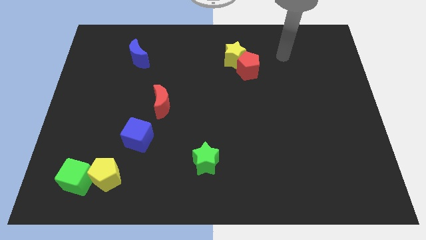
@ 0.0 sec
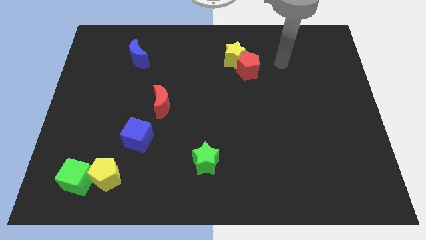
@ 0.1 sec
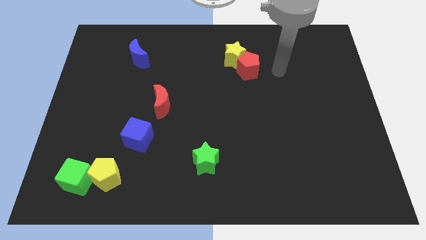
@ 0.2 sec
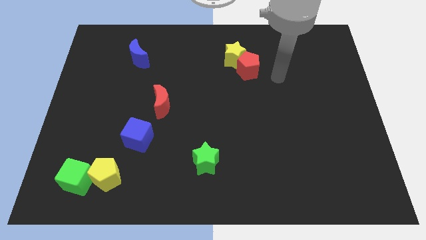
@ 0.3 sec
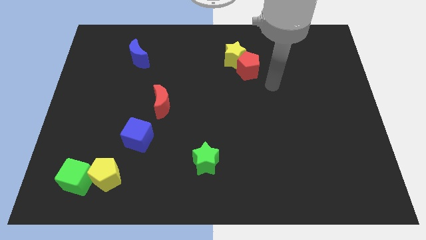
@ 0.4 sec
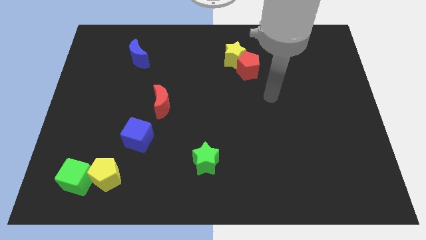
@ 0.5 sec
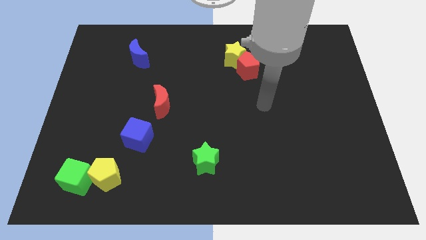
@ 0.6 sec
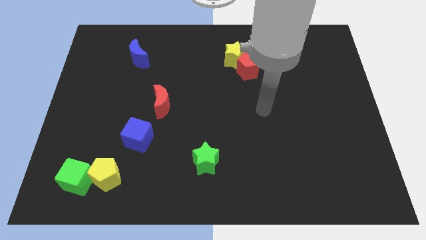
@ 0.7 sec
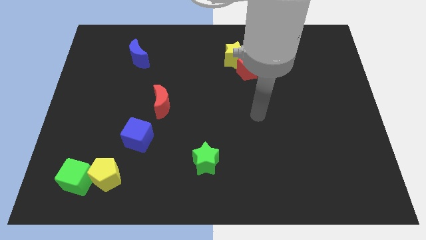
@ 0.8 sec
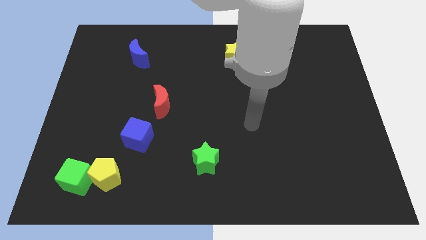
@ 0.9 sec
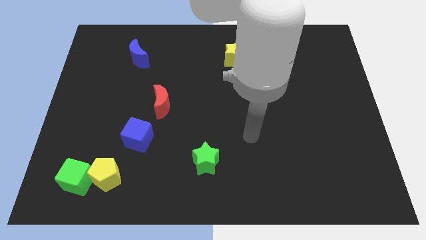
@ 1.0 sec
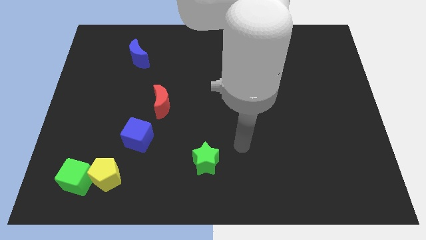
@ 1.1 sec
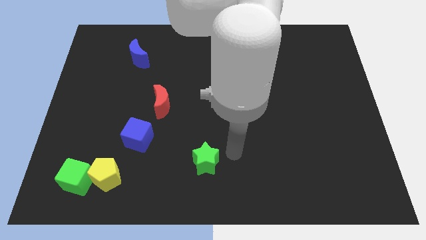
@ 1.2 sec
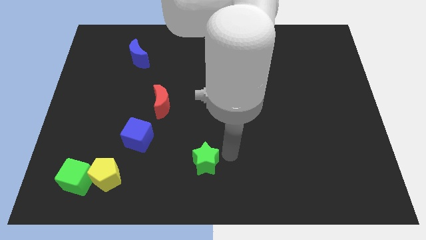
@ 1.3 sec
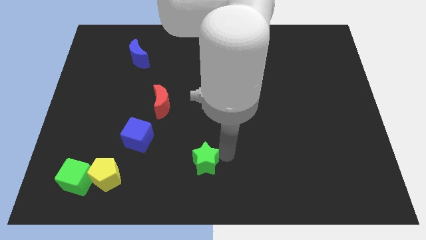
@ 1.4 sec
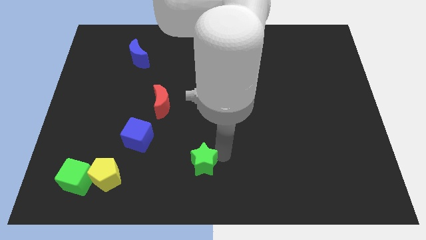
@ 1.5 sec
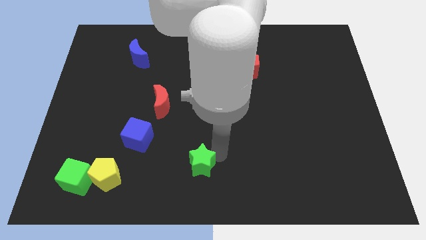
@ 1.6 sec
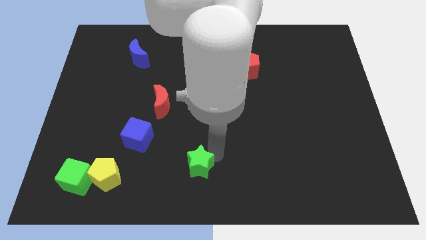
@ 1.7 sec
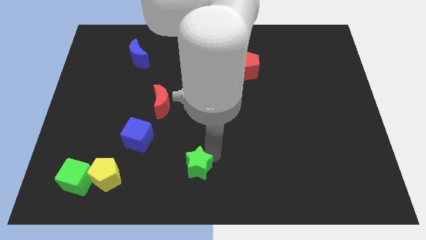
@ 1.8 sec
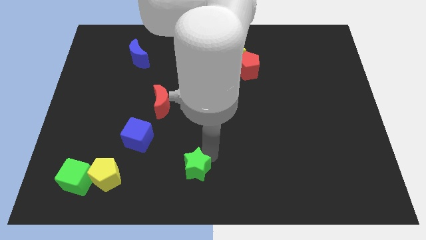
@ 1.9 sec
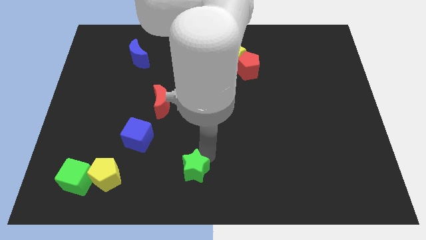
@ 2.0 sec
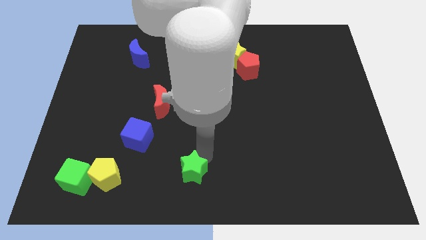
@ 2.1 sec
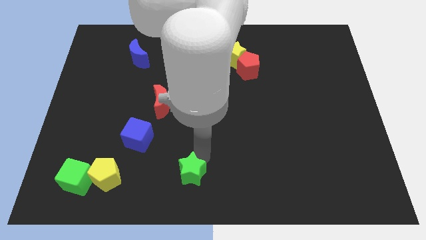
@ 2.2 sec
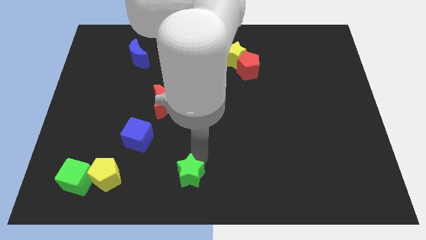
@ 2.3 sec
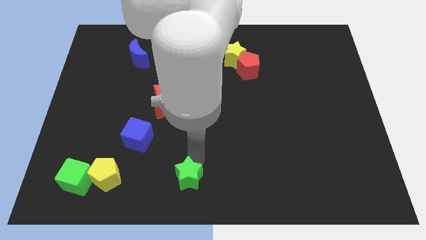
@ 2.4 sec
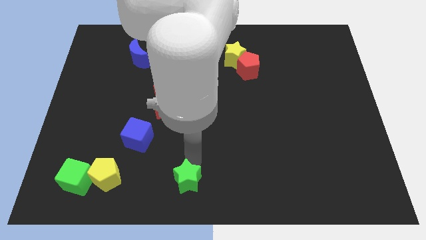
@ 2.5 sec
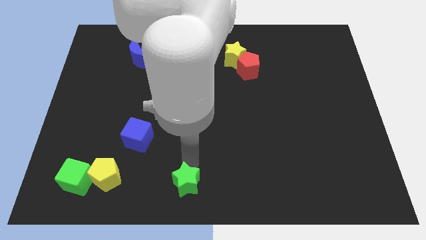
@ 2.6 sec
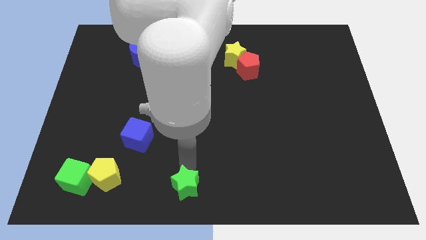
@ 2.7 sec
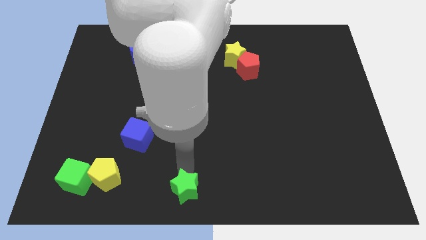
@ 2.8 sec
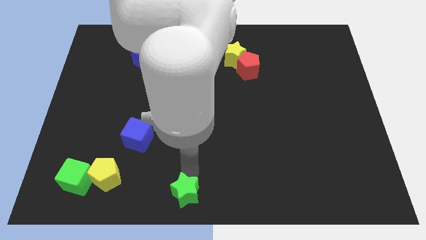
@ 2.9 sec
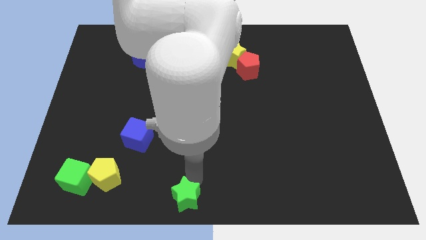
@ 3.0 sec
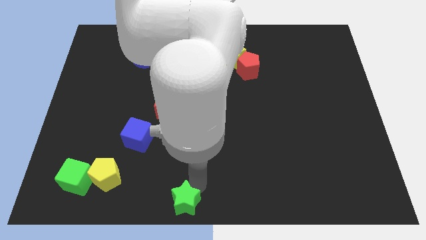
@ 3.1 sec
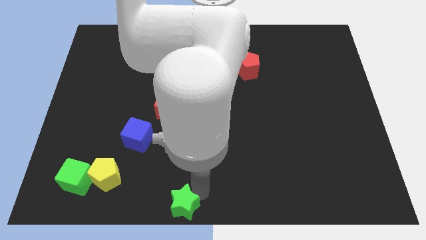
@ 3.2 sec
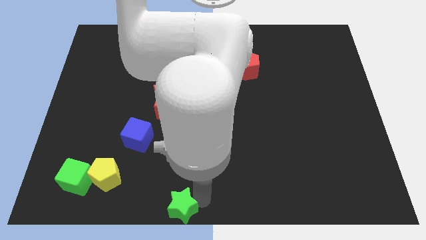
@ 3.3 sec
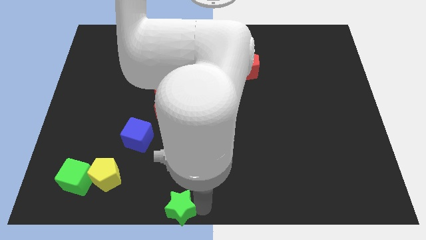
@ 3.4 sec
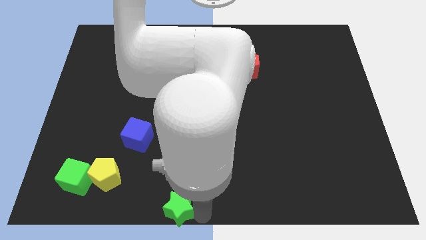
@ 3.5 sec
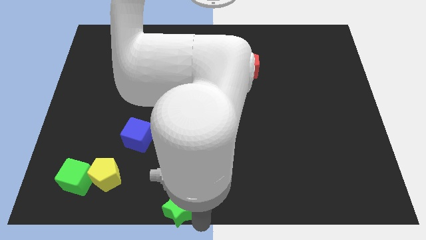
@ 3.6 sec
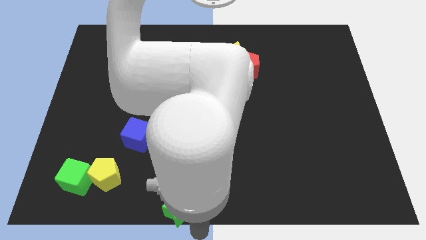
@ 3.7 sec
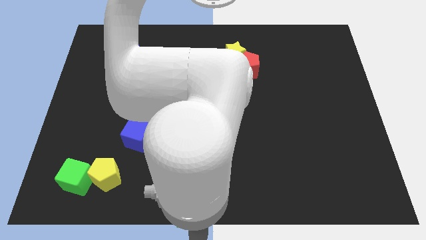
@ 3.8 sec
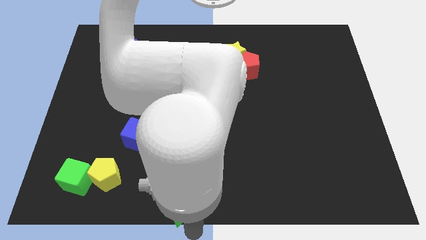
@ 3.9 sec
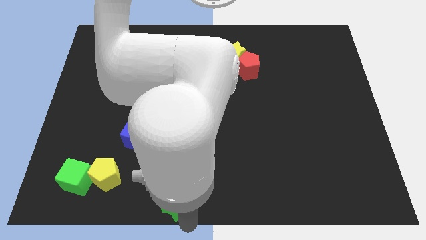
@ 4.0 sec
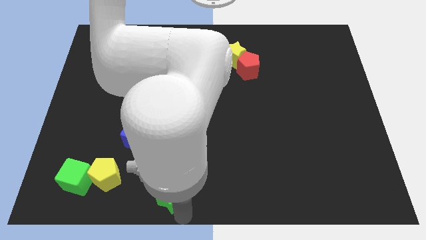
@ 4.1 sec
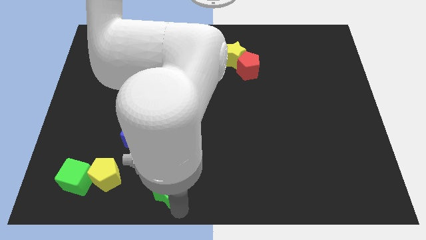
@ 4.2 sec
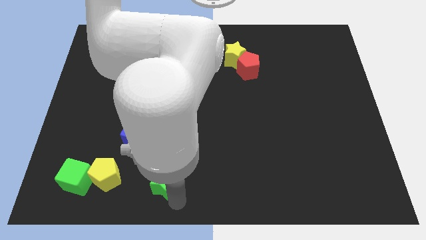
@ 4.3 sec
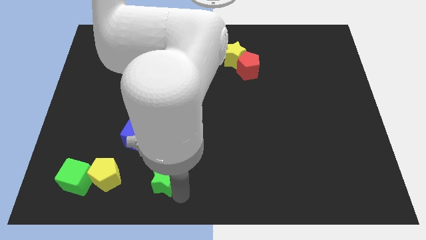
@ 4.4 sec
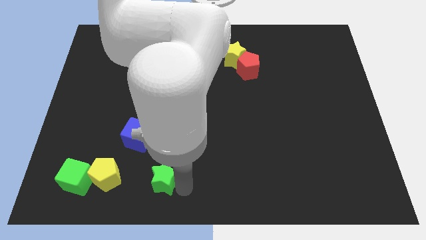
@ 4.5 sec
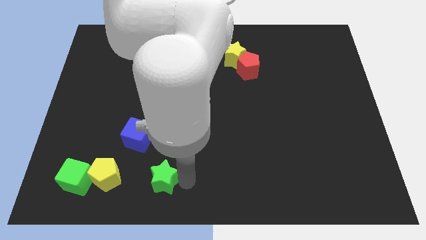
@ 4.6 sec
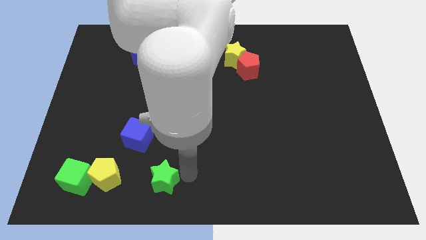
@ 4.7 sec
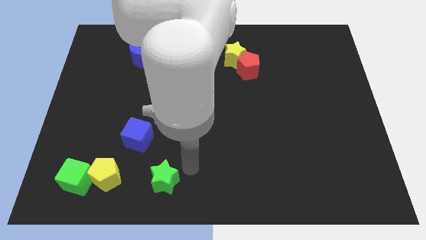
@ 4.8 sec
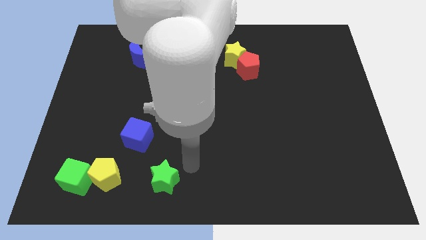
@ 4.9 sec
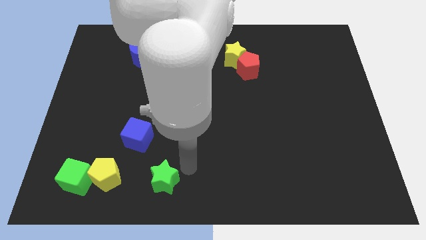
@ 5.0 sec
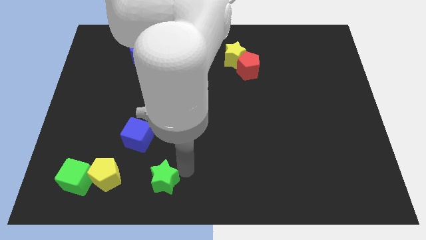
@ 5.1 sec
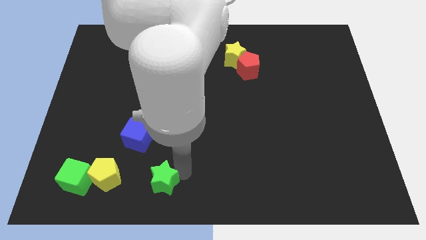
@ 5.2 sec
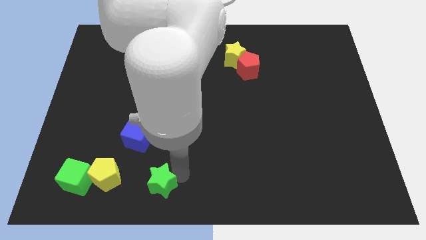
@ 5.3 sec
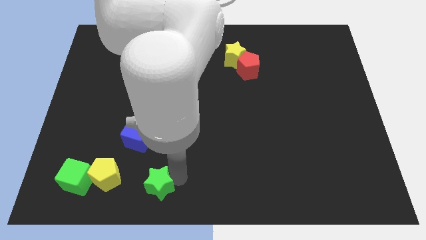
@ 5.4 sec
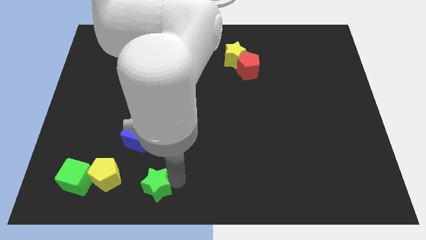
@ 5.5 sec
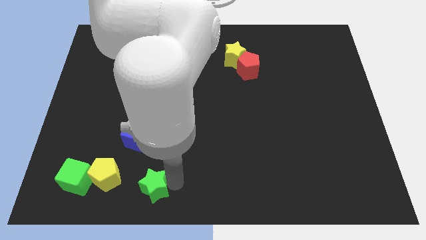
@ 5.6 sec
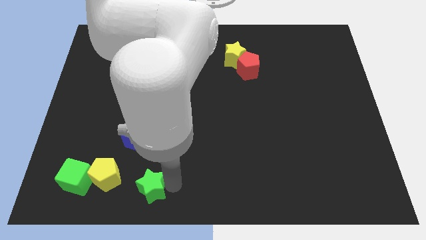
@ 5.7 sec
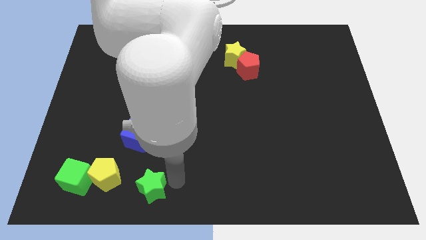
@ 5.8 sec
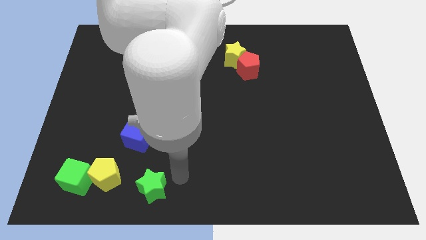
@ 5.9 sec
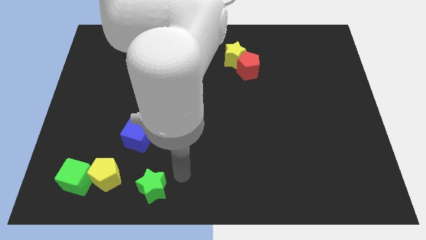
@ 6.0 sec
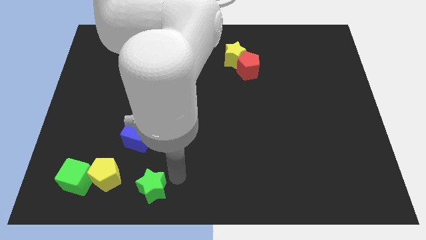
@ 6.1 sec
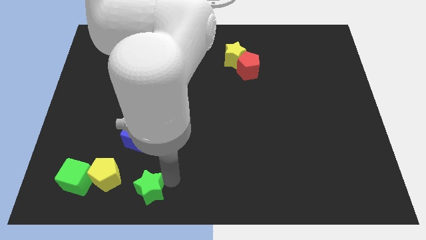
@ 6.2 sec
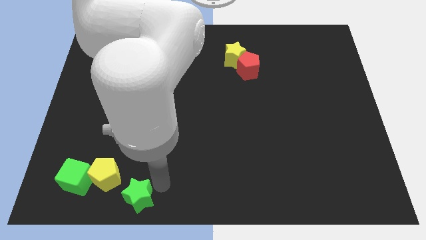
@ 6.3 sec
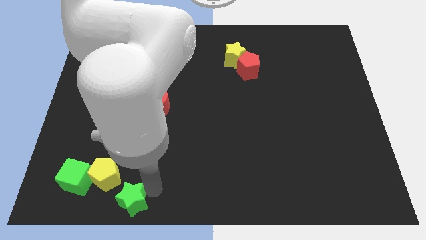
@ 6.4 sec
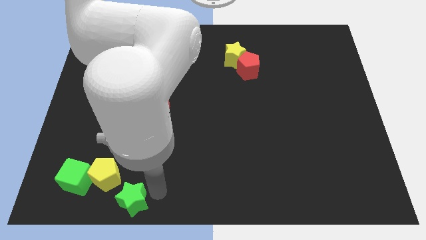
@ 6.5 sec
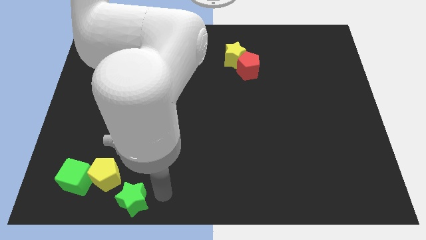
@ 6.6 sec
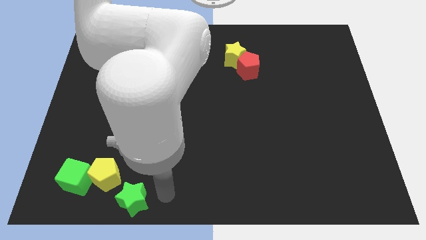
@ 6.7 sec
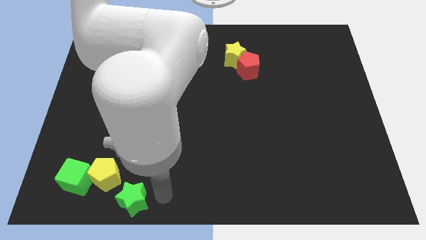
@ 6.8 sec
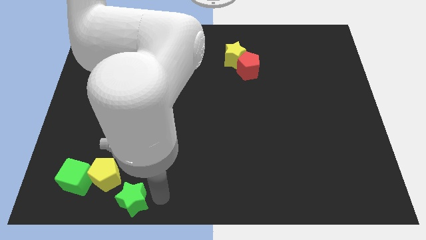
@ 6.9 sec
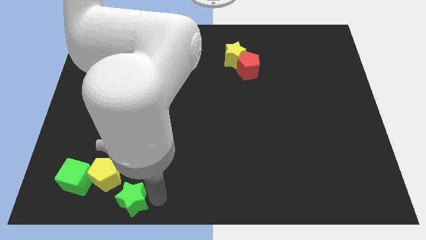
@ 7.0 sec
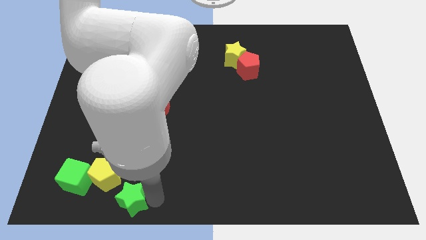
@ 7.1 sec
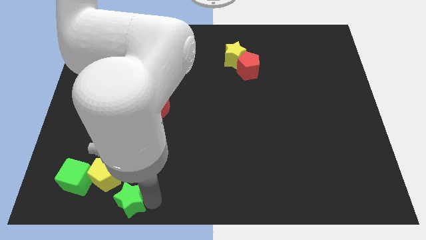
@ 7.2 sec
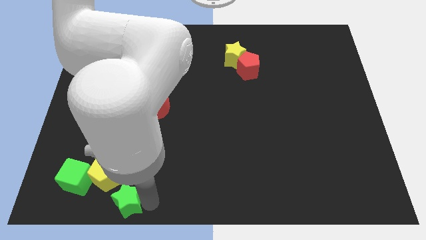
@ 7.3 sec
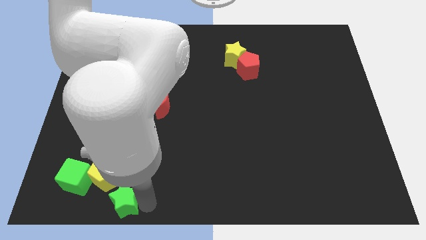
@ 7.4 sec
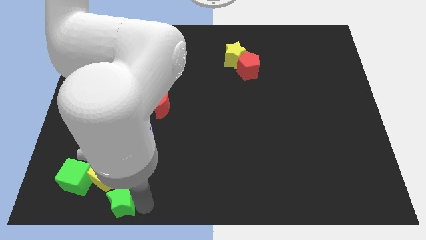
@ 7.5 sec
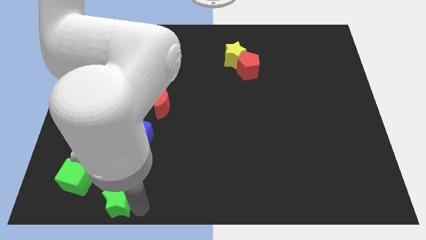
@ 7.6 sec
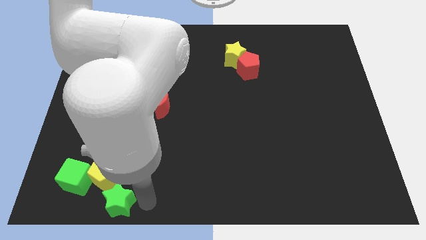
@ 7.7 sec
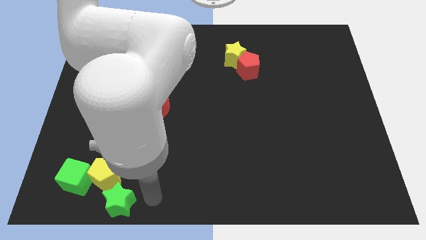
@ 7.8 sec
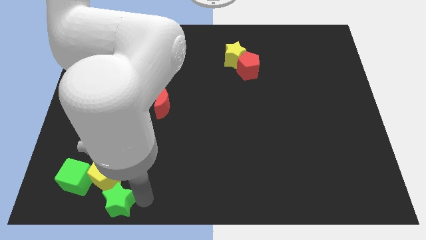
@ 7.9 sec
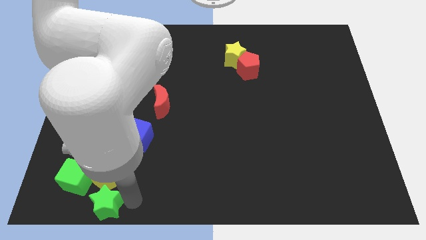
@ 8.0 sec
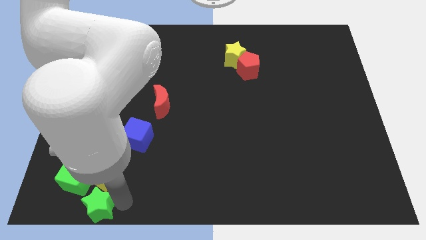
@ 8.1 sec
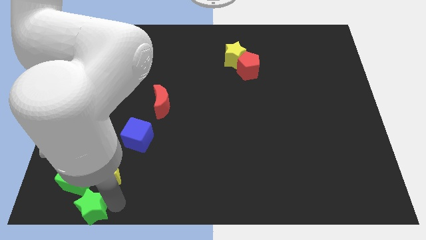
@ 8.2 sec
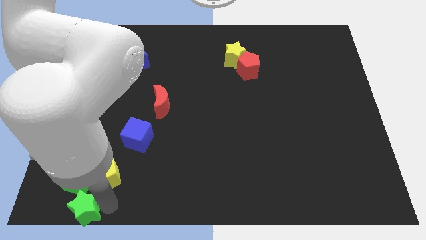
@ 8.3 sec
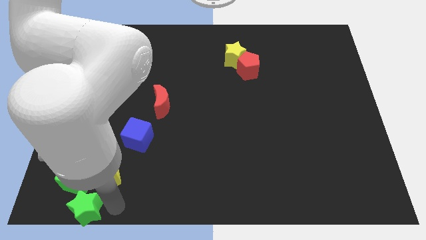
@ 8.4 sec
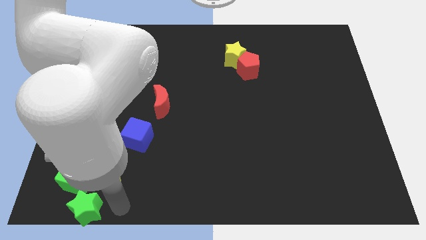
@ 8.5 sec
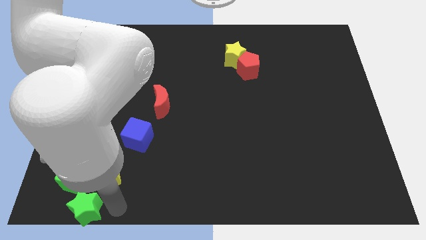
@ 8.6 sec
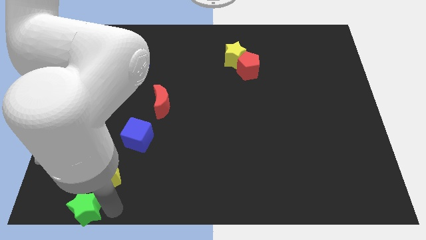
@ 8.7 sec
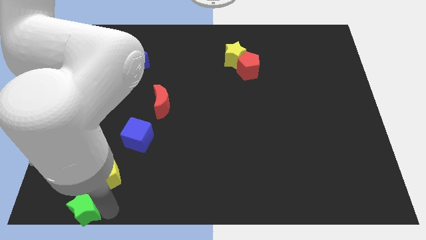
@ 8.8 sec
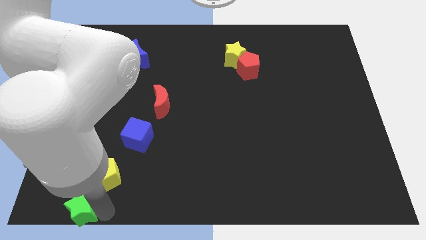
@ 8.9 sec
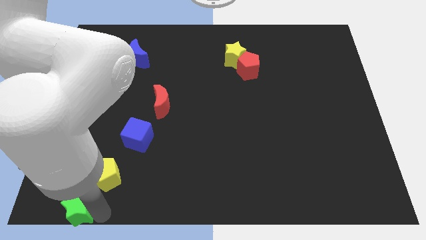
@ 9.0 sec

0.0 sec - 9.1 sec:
move the green star to the lower left corner
